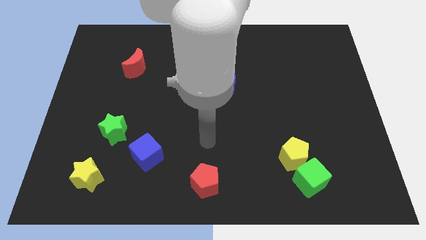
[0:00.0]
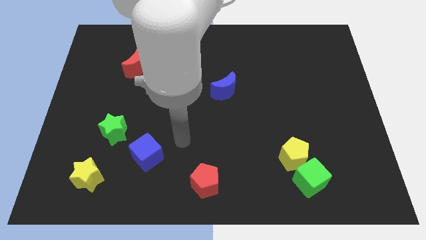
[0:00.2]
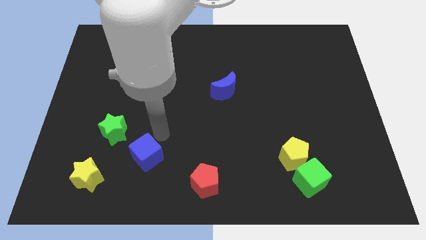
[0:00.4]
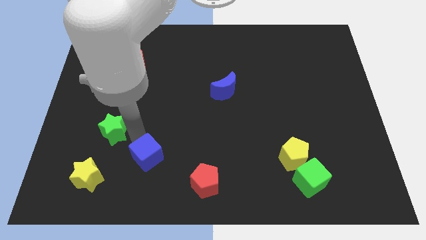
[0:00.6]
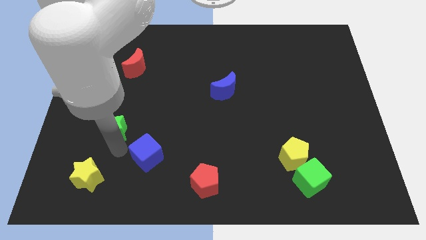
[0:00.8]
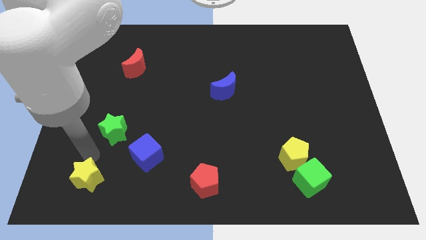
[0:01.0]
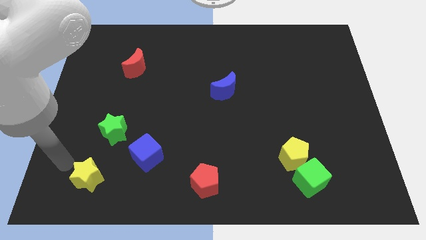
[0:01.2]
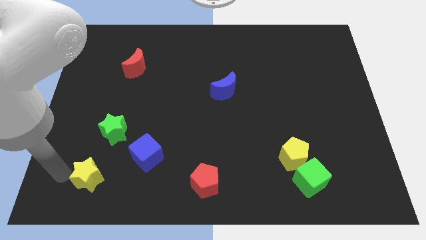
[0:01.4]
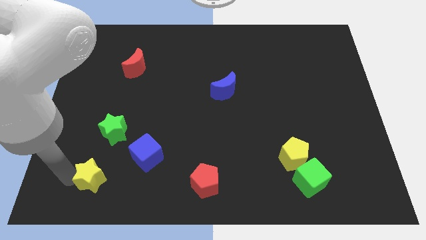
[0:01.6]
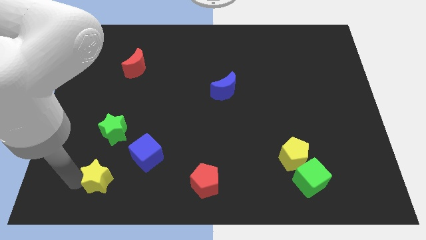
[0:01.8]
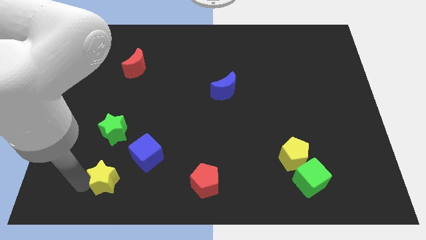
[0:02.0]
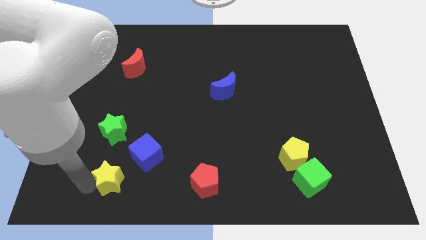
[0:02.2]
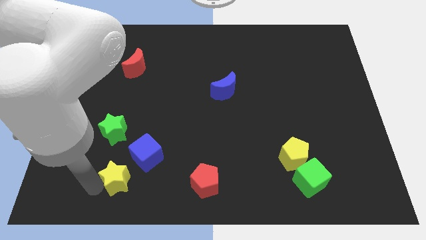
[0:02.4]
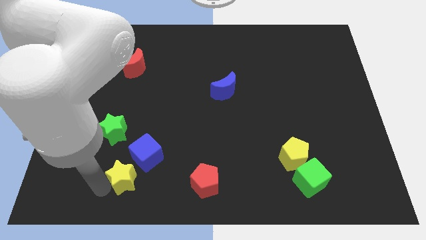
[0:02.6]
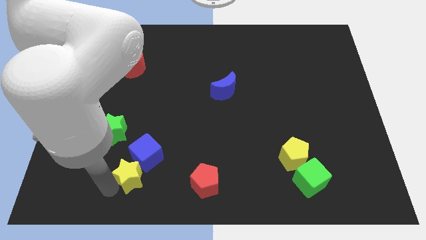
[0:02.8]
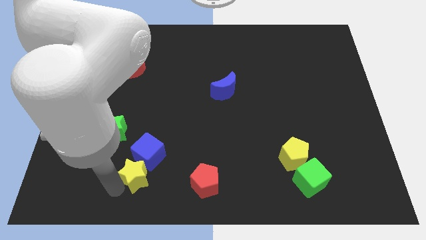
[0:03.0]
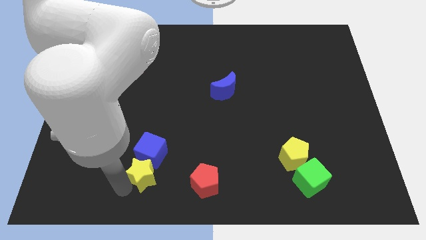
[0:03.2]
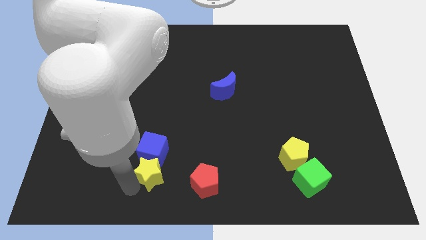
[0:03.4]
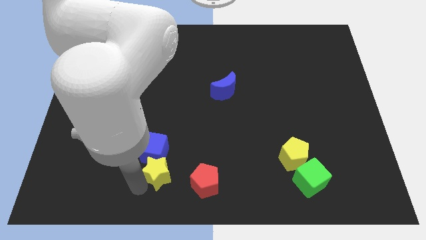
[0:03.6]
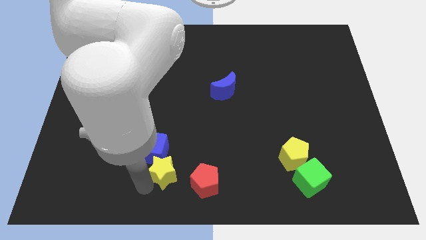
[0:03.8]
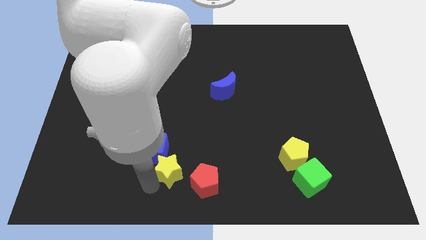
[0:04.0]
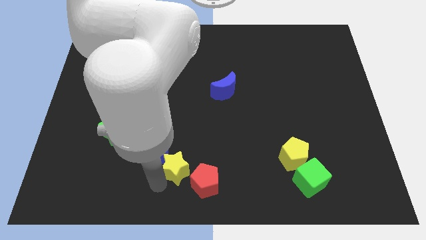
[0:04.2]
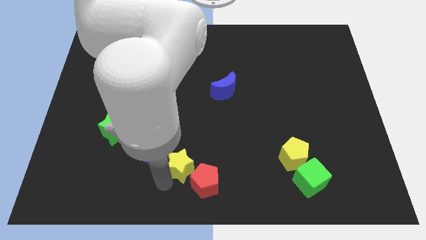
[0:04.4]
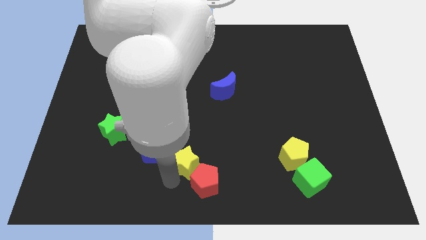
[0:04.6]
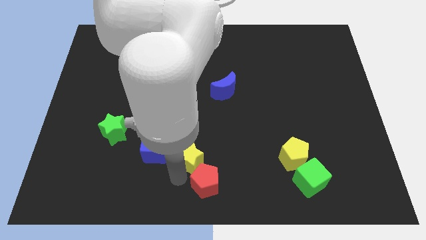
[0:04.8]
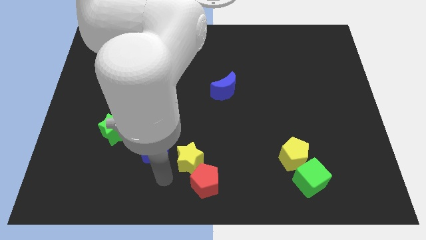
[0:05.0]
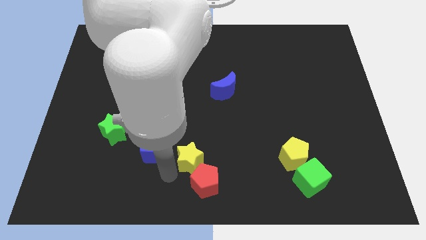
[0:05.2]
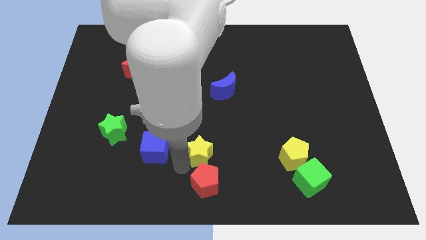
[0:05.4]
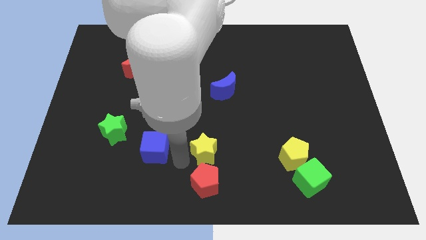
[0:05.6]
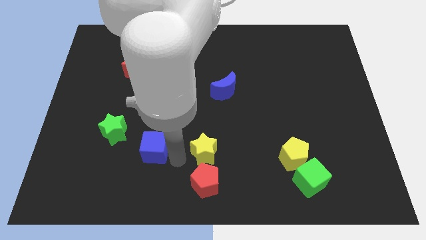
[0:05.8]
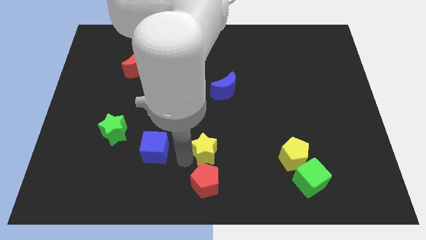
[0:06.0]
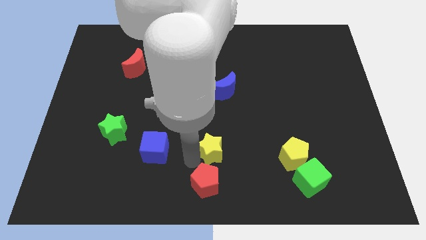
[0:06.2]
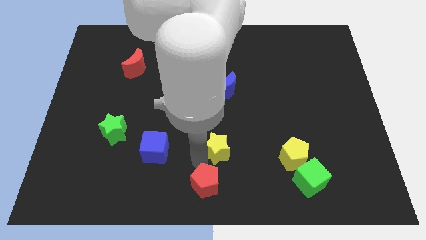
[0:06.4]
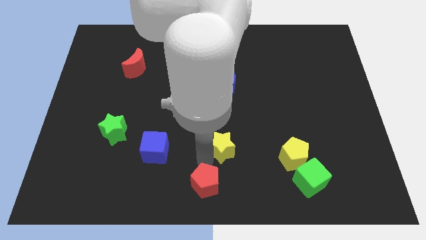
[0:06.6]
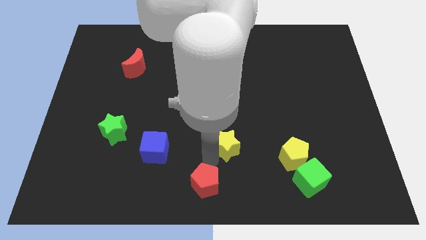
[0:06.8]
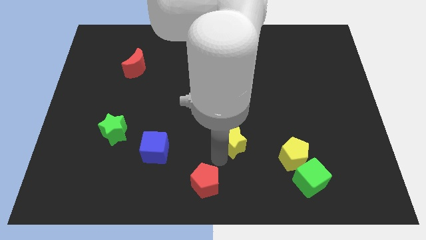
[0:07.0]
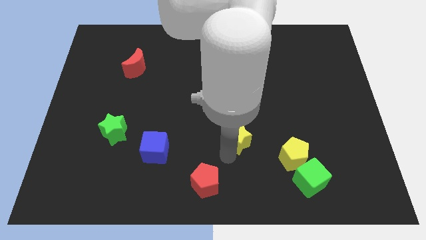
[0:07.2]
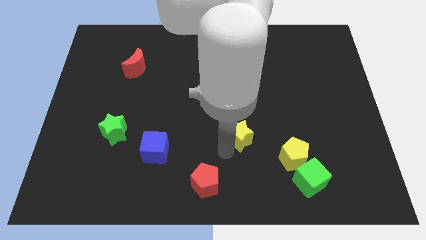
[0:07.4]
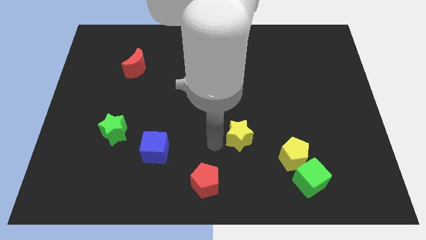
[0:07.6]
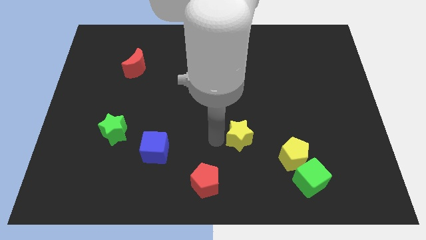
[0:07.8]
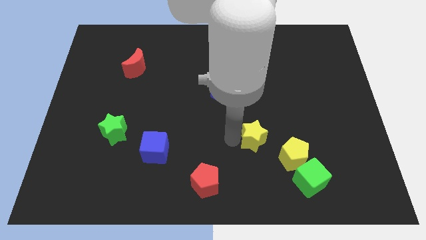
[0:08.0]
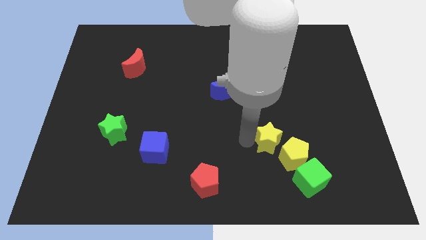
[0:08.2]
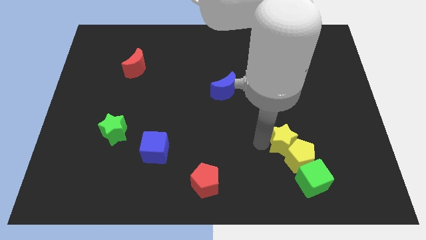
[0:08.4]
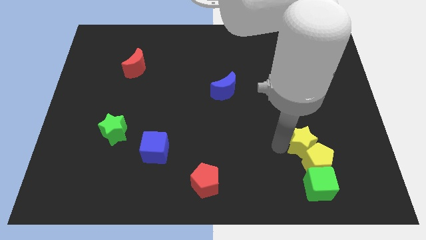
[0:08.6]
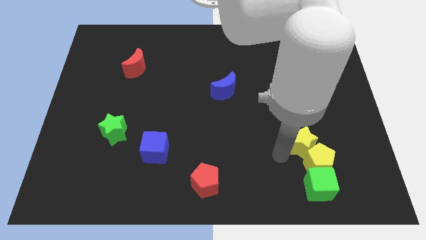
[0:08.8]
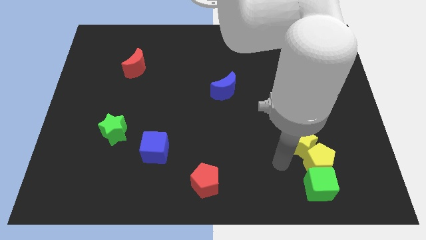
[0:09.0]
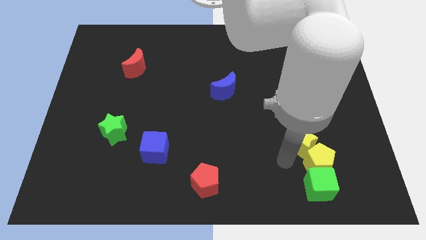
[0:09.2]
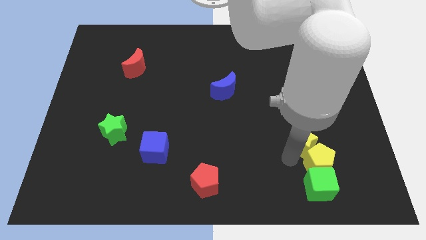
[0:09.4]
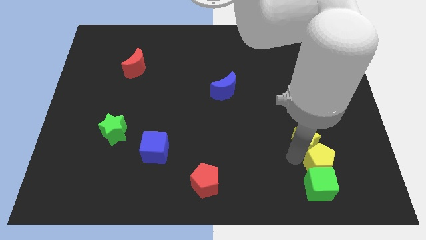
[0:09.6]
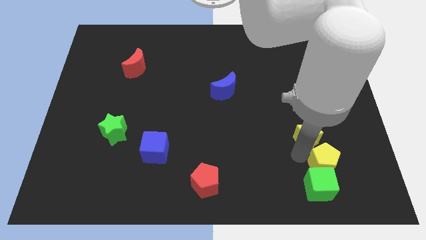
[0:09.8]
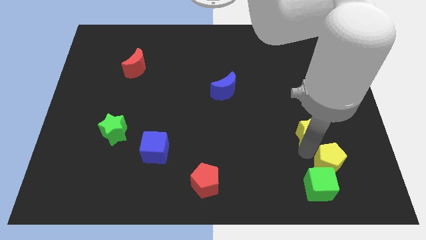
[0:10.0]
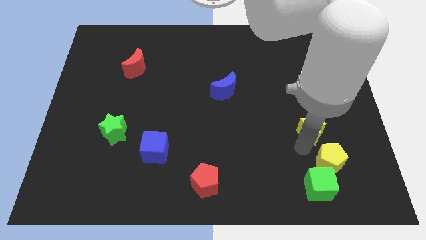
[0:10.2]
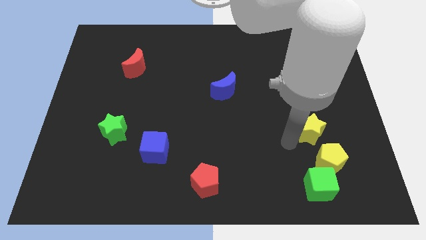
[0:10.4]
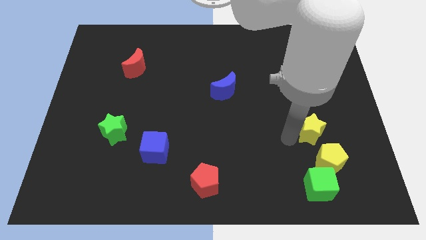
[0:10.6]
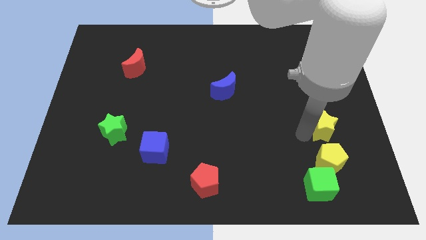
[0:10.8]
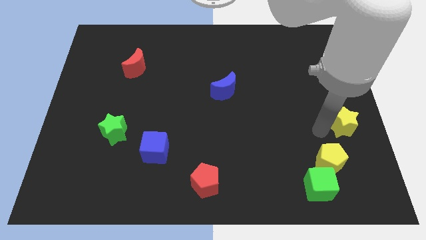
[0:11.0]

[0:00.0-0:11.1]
push the yellow star to the right side of the board

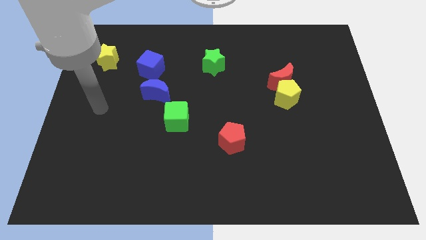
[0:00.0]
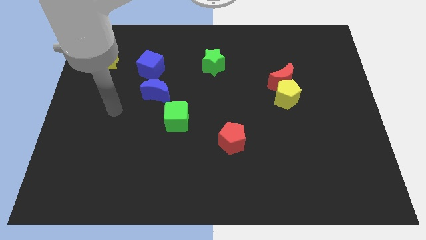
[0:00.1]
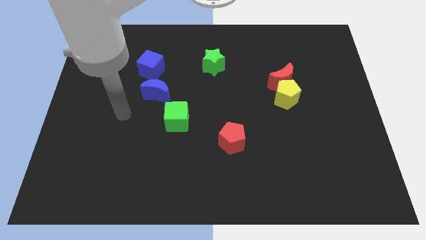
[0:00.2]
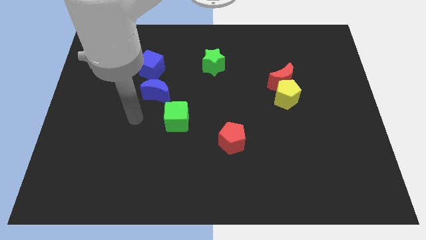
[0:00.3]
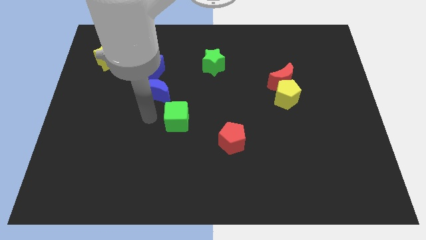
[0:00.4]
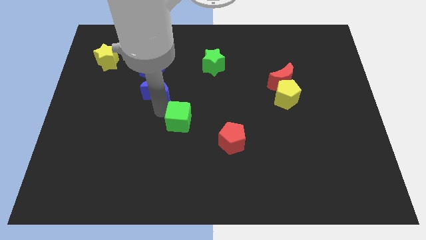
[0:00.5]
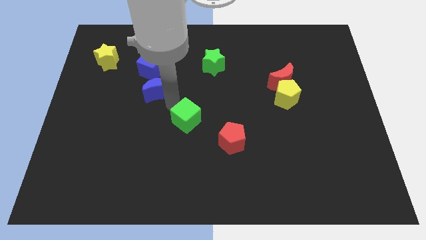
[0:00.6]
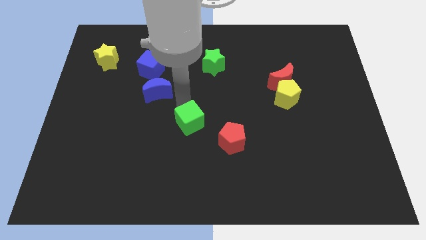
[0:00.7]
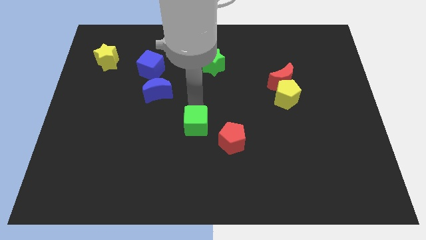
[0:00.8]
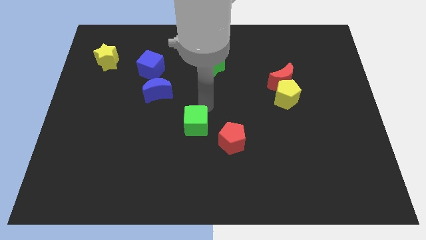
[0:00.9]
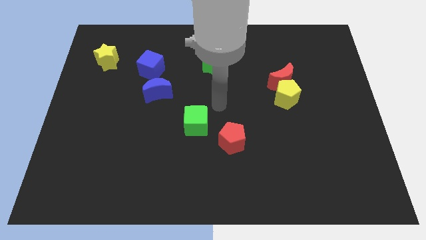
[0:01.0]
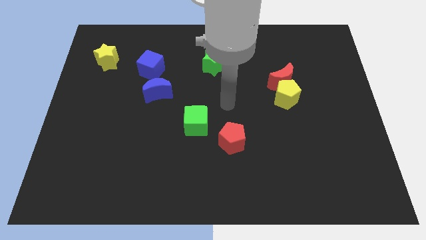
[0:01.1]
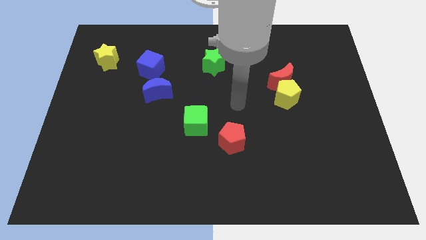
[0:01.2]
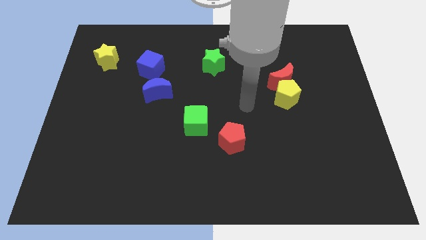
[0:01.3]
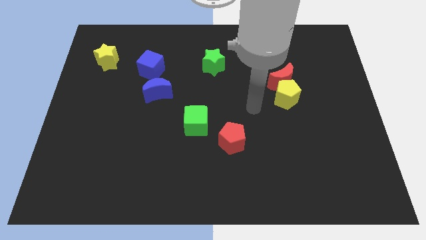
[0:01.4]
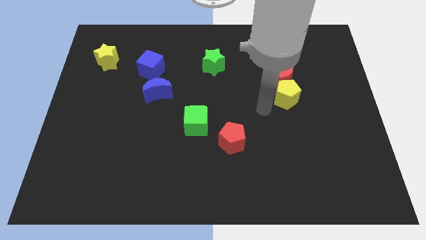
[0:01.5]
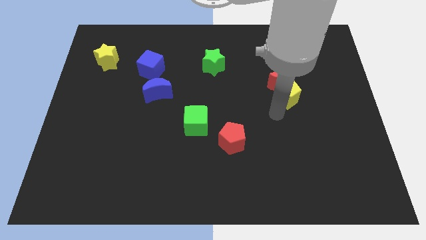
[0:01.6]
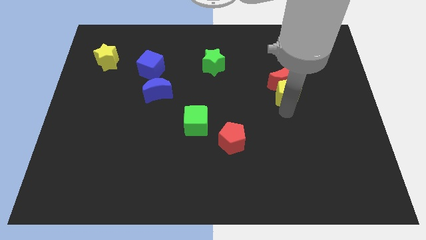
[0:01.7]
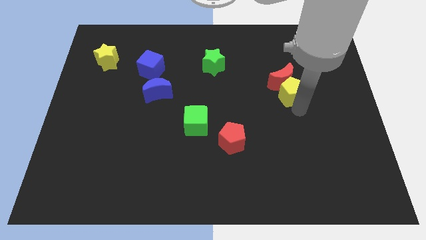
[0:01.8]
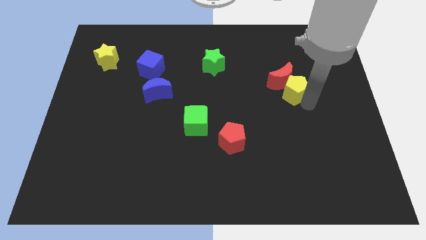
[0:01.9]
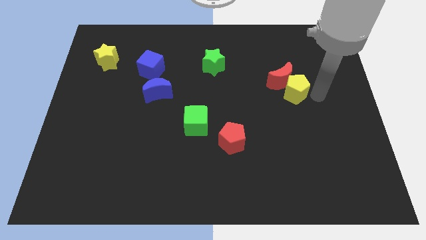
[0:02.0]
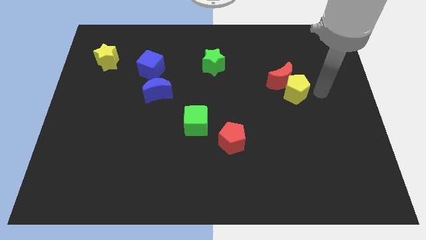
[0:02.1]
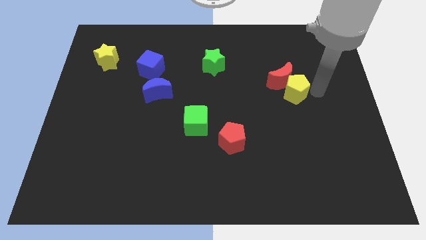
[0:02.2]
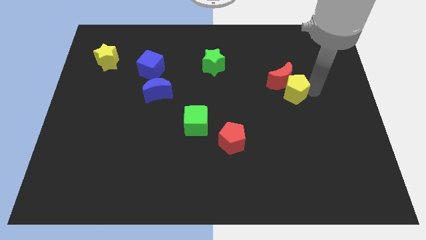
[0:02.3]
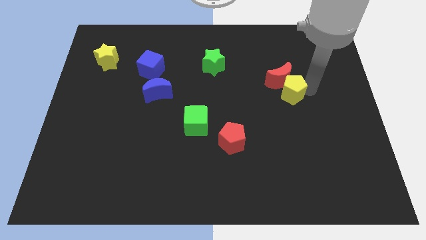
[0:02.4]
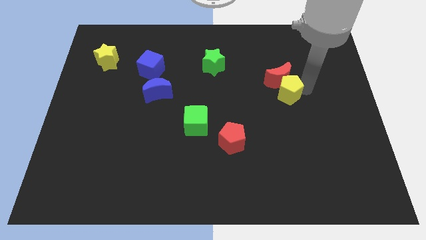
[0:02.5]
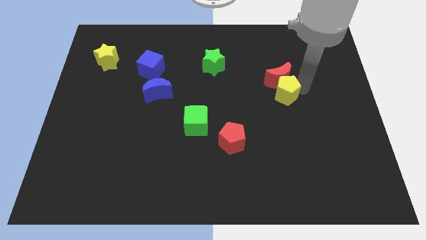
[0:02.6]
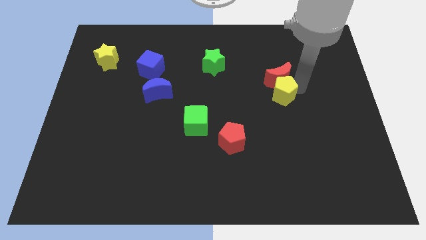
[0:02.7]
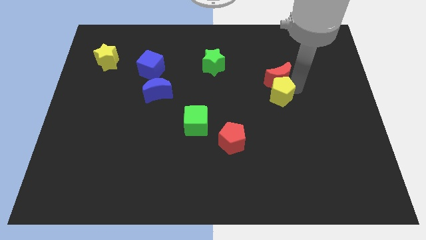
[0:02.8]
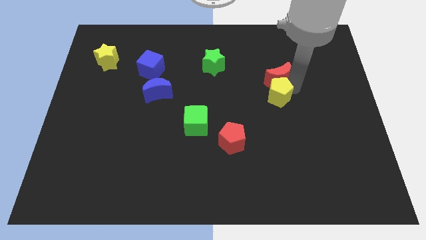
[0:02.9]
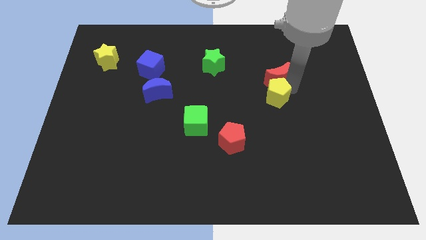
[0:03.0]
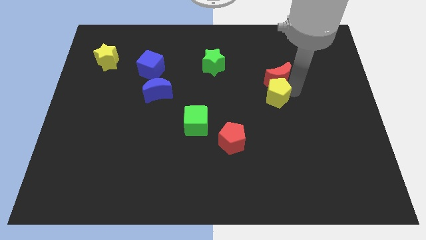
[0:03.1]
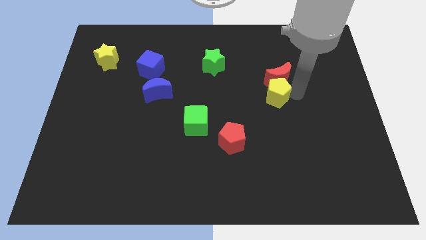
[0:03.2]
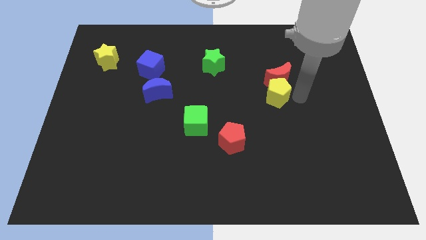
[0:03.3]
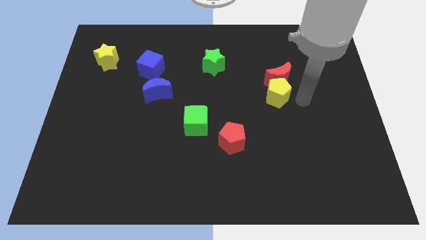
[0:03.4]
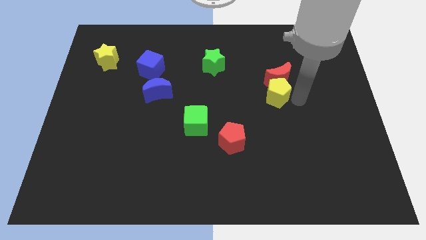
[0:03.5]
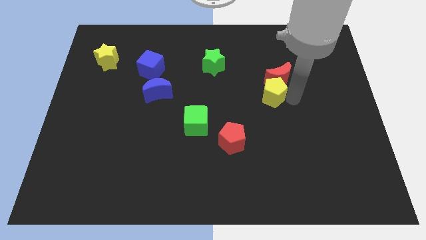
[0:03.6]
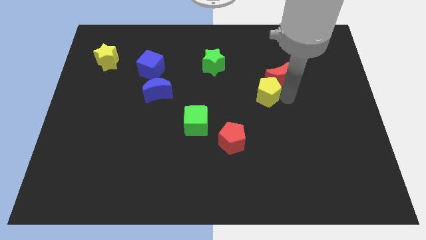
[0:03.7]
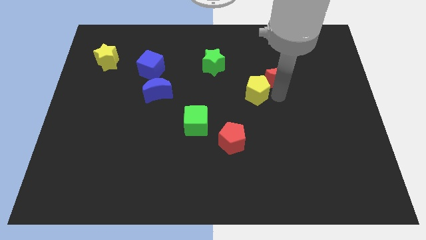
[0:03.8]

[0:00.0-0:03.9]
push the yellow pentagon to the center of the board
